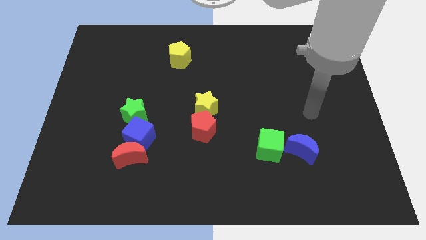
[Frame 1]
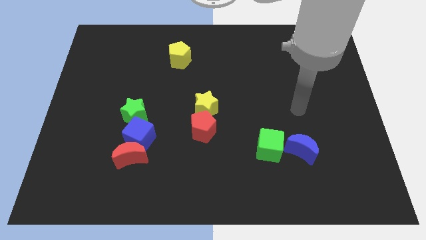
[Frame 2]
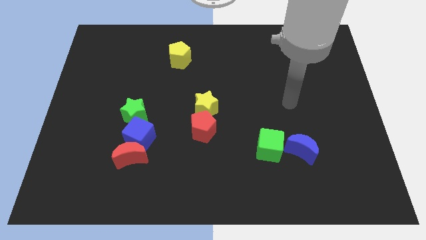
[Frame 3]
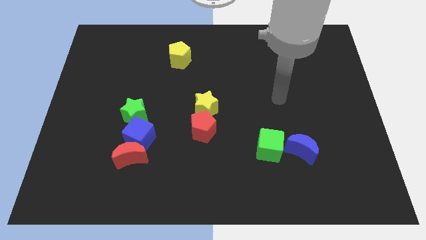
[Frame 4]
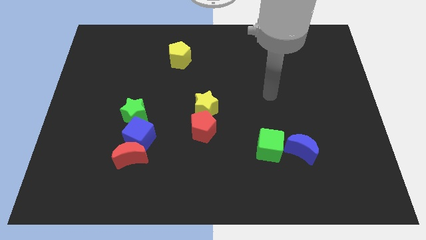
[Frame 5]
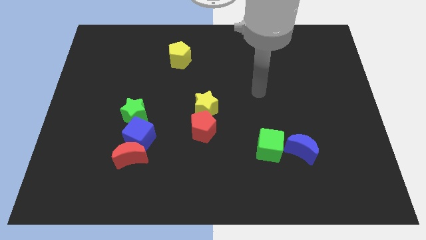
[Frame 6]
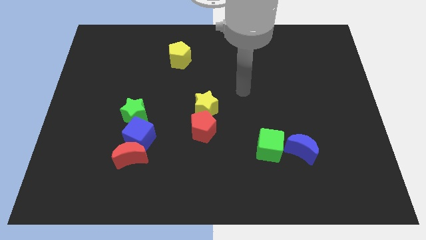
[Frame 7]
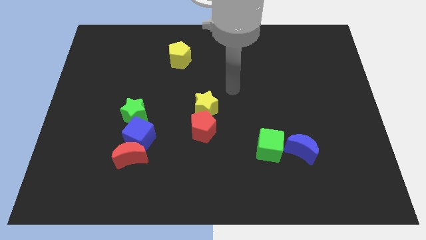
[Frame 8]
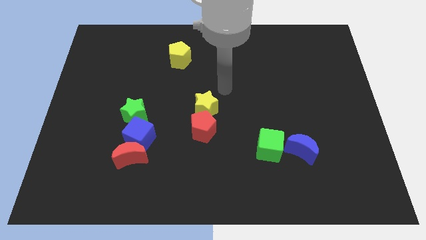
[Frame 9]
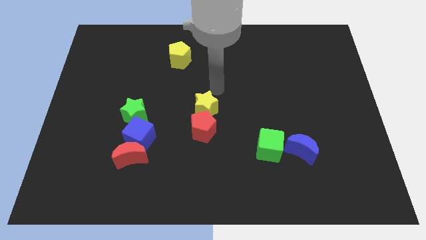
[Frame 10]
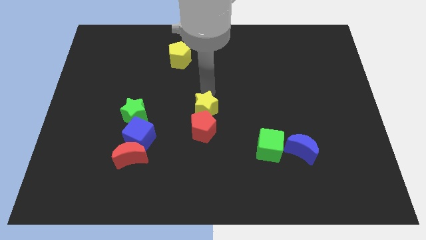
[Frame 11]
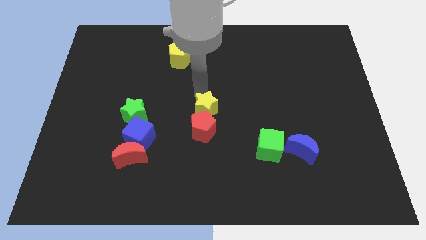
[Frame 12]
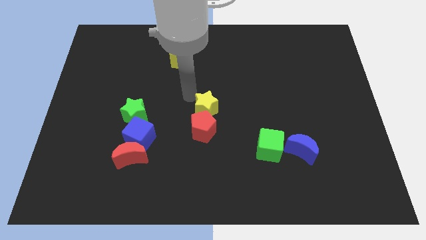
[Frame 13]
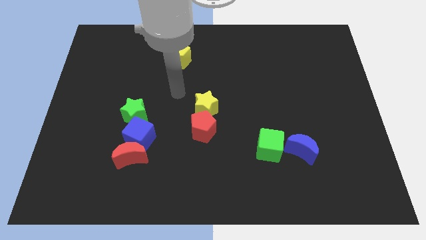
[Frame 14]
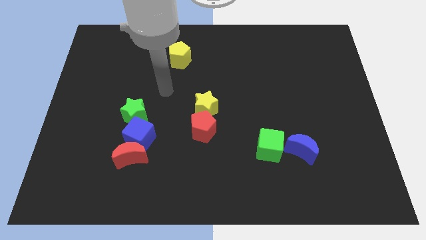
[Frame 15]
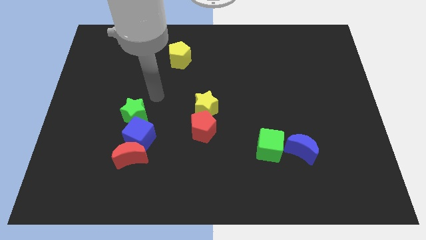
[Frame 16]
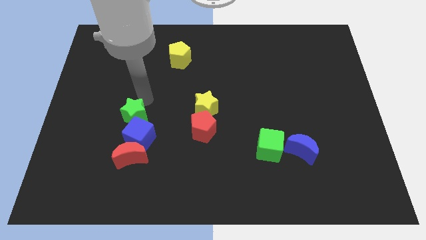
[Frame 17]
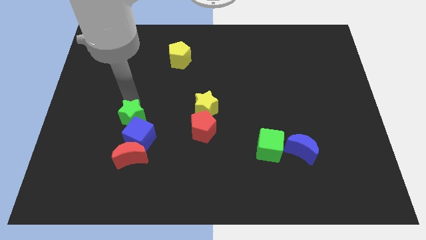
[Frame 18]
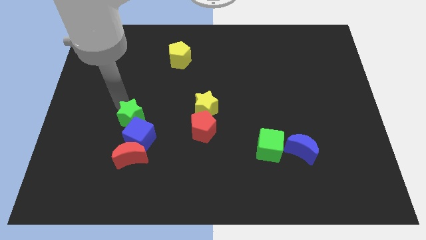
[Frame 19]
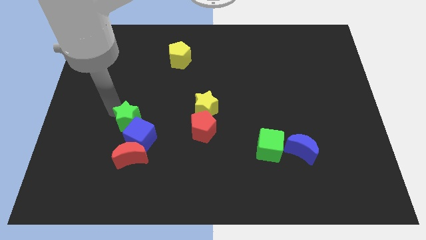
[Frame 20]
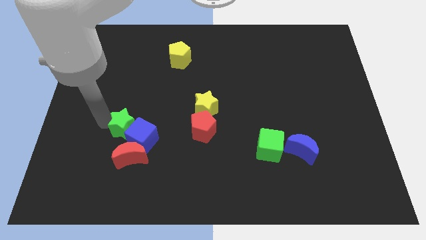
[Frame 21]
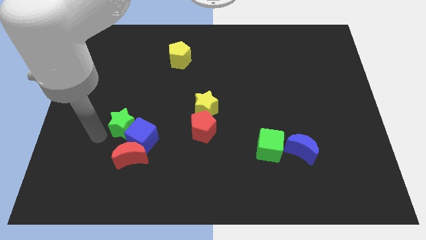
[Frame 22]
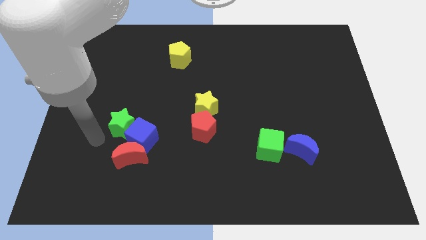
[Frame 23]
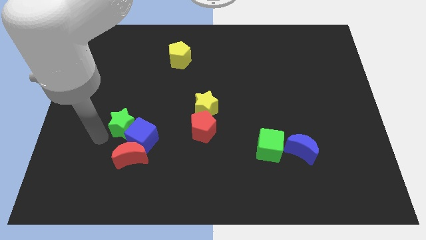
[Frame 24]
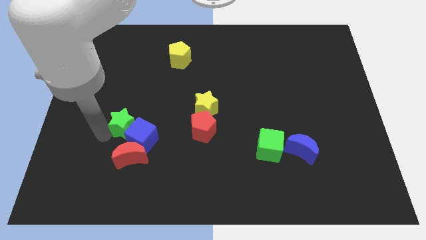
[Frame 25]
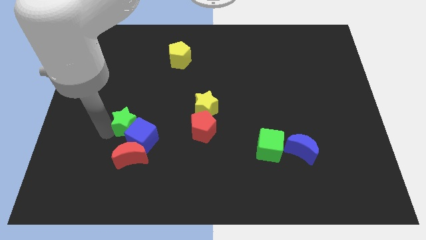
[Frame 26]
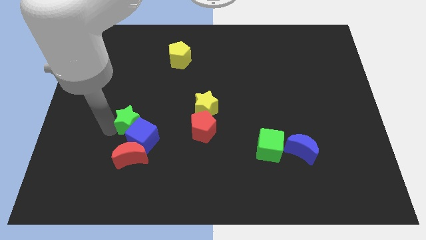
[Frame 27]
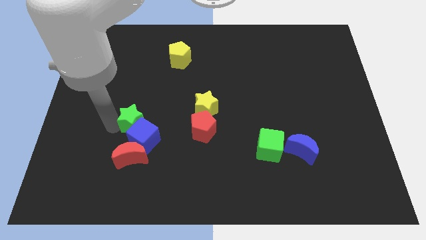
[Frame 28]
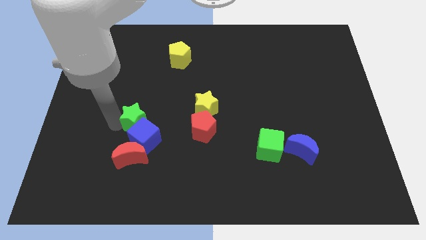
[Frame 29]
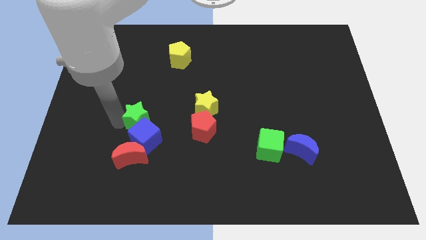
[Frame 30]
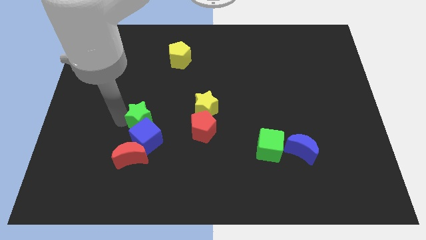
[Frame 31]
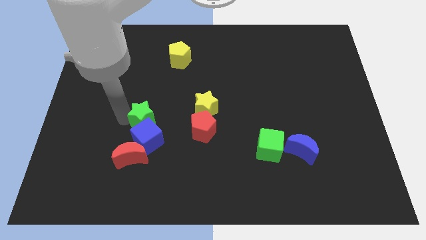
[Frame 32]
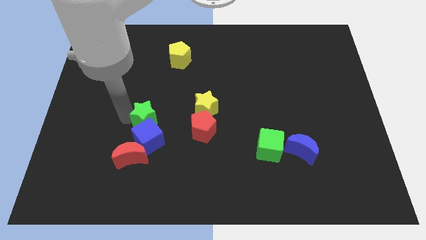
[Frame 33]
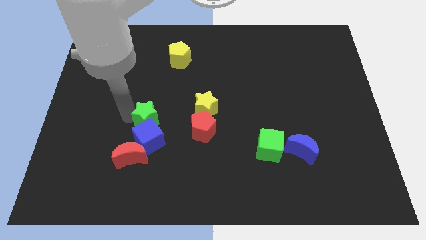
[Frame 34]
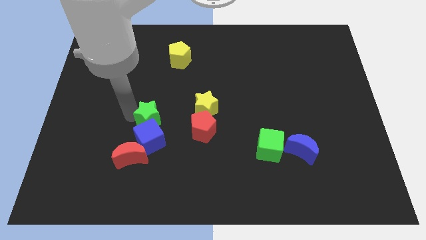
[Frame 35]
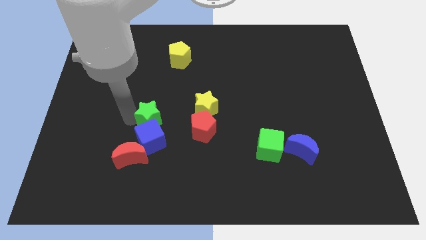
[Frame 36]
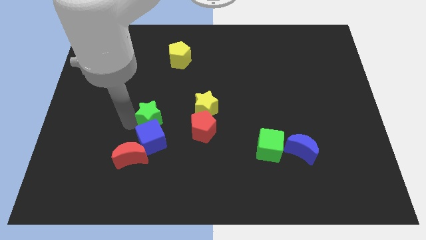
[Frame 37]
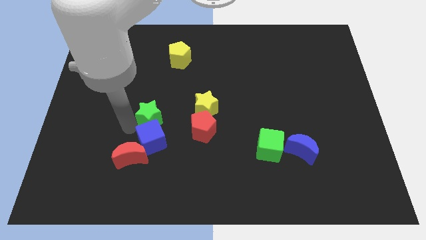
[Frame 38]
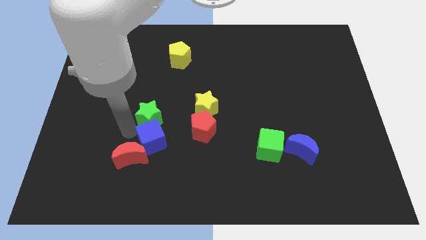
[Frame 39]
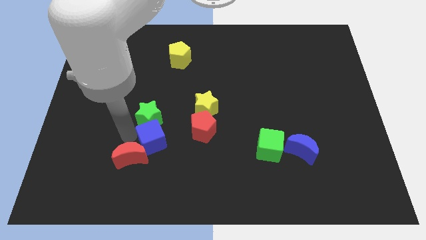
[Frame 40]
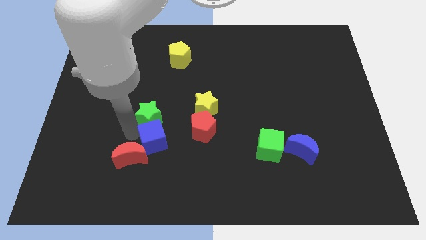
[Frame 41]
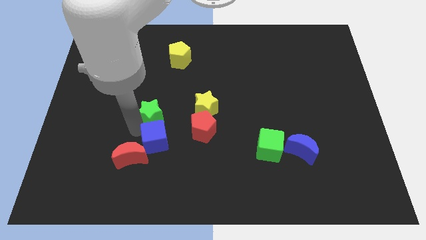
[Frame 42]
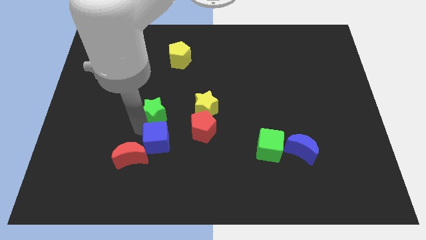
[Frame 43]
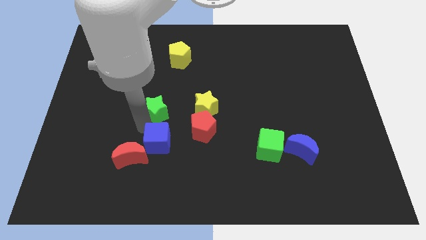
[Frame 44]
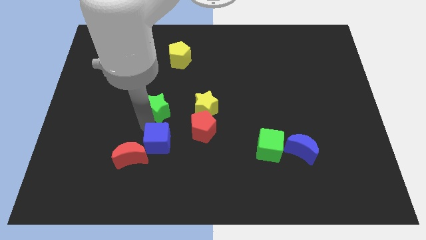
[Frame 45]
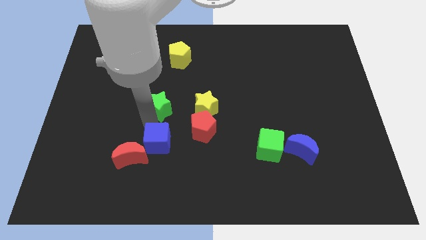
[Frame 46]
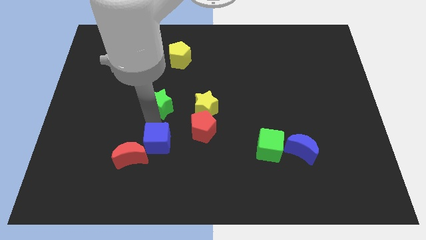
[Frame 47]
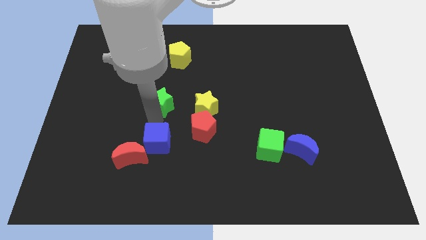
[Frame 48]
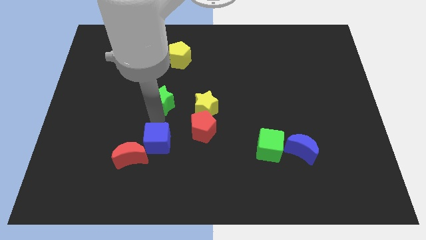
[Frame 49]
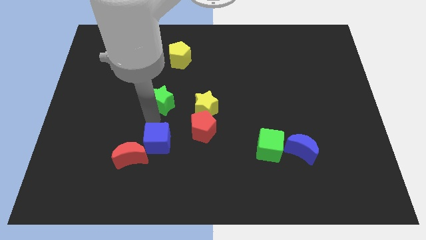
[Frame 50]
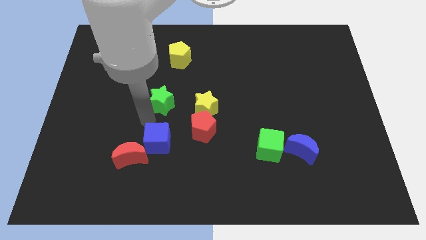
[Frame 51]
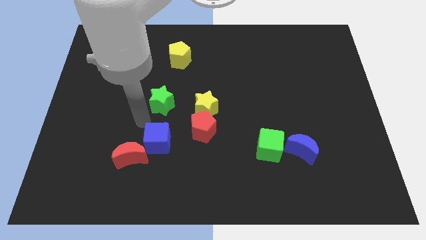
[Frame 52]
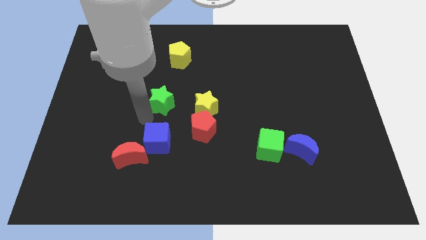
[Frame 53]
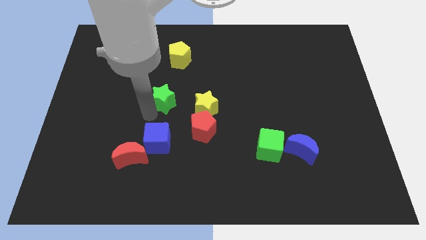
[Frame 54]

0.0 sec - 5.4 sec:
slightly move the green star up and to the right

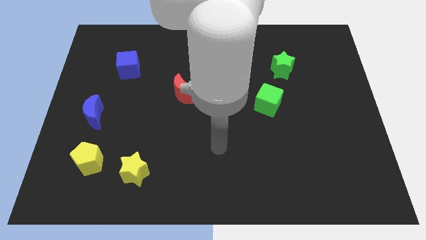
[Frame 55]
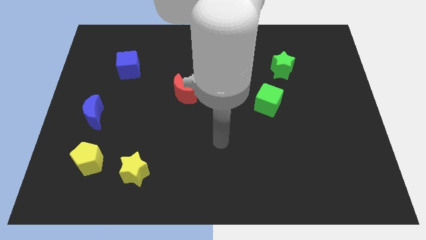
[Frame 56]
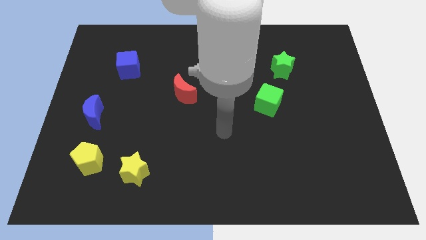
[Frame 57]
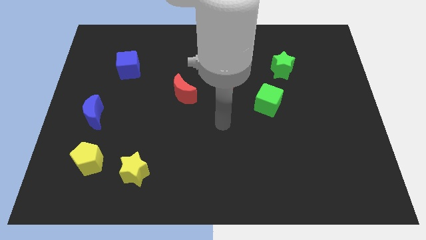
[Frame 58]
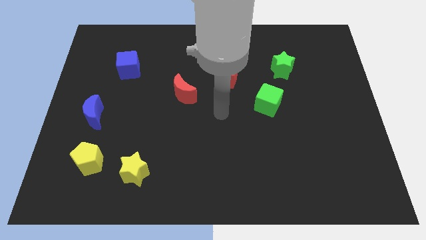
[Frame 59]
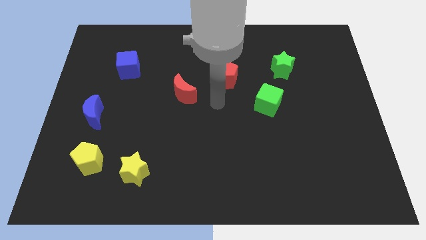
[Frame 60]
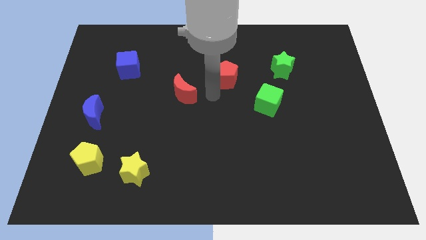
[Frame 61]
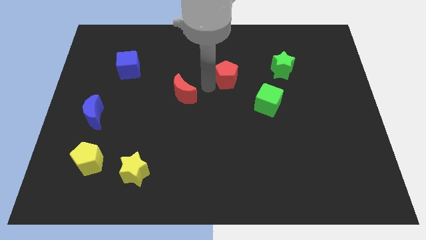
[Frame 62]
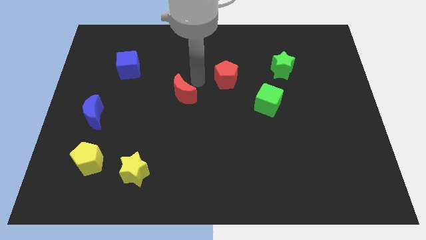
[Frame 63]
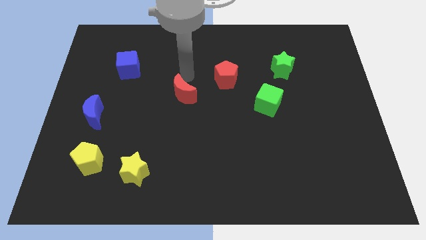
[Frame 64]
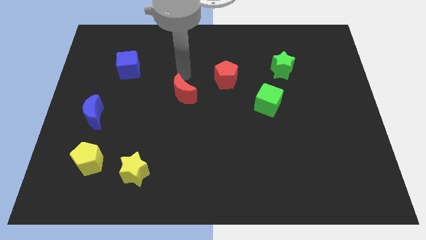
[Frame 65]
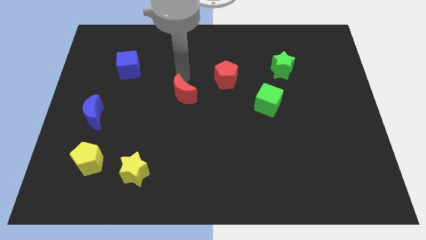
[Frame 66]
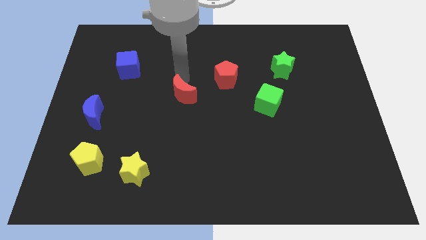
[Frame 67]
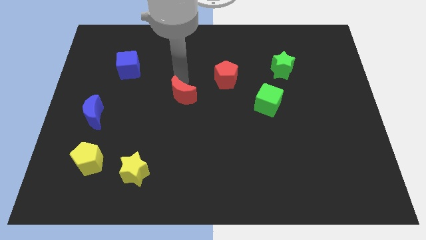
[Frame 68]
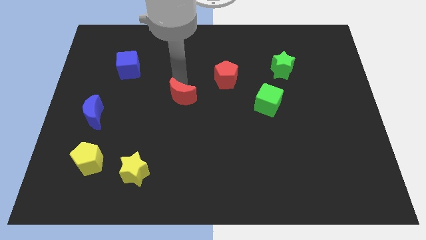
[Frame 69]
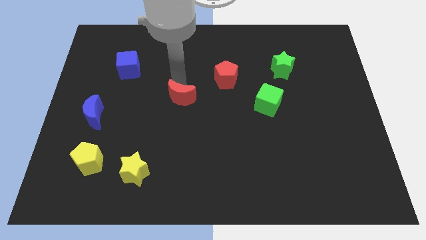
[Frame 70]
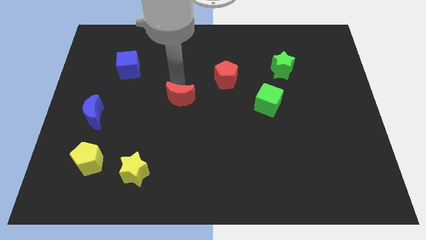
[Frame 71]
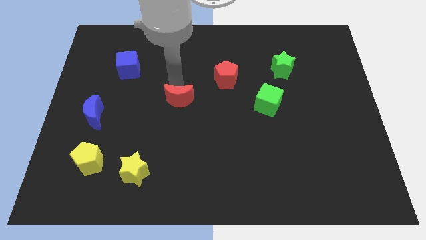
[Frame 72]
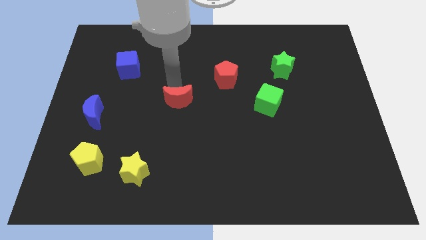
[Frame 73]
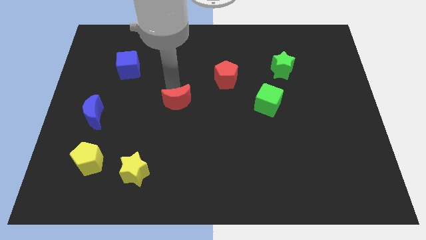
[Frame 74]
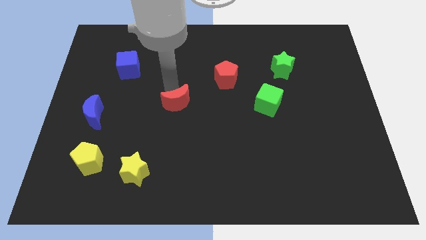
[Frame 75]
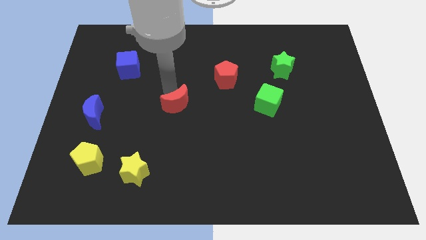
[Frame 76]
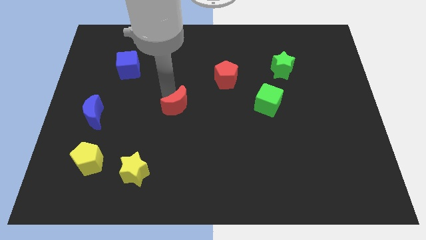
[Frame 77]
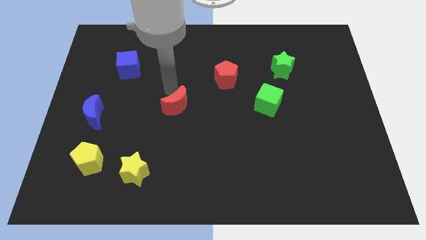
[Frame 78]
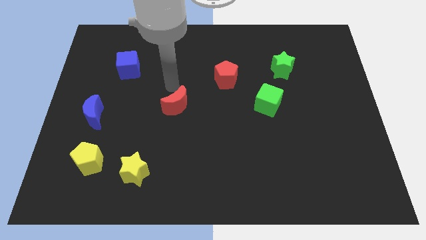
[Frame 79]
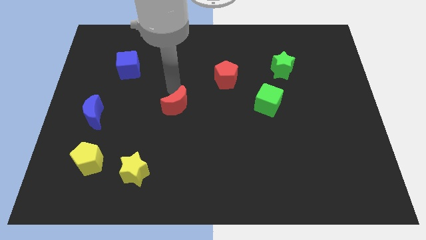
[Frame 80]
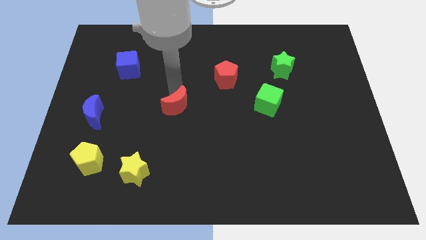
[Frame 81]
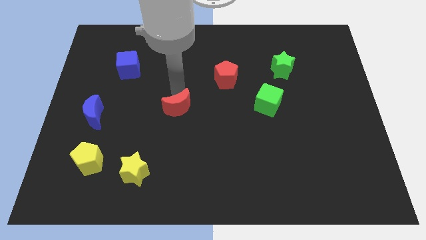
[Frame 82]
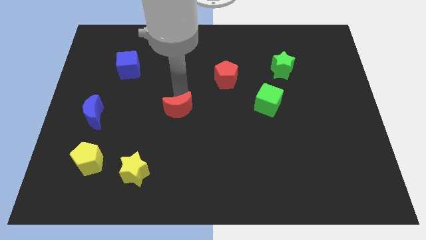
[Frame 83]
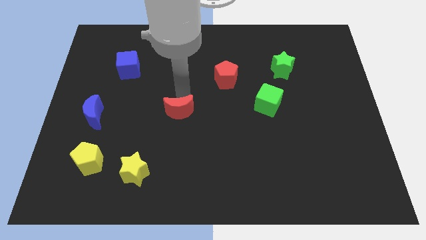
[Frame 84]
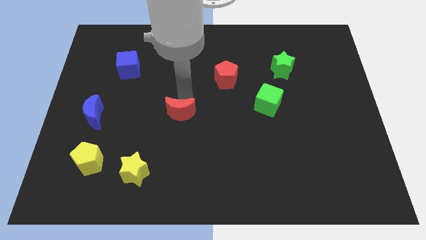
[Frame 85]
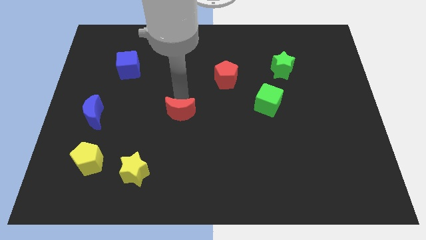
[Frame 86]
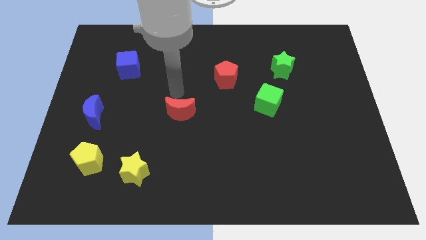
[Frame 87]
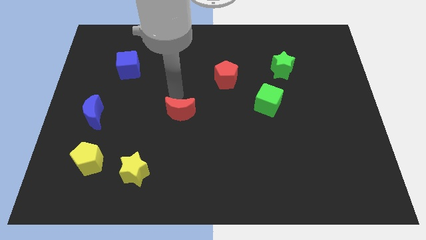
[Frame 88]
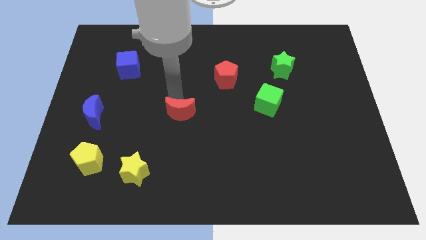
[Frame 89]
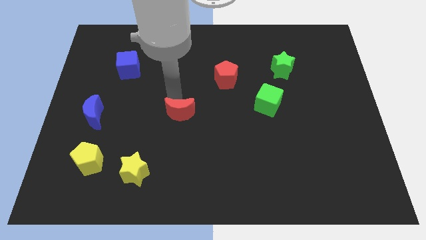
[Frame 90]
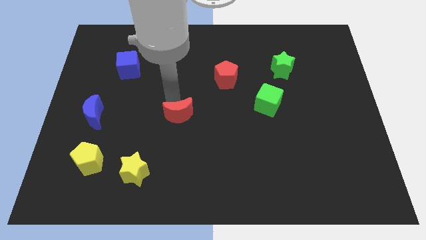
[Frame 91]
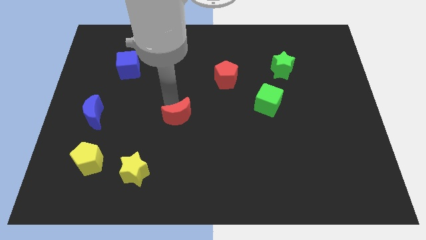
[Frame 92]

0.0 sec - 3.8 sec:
slightly slide the red moon downwards
